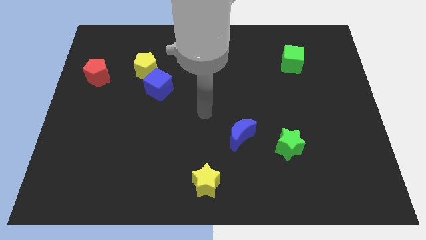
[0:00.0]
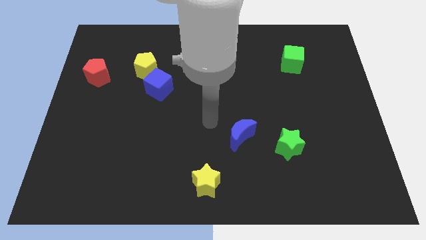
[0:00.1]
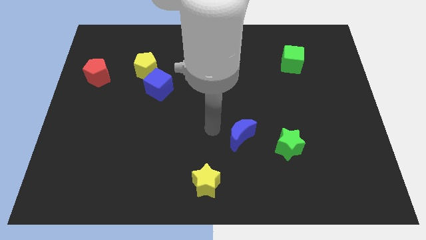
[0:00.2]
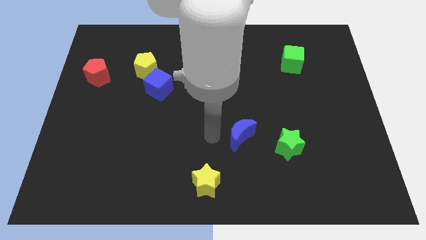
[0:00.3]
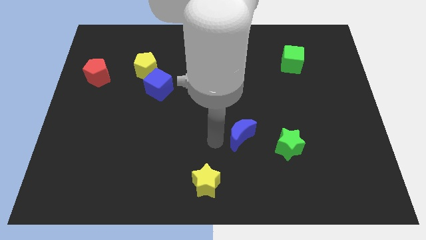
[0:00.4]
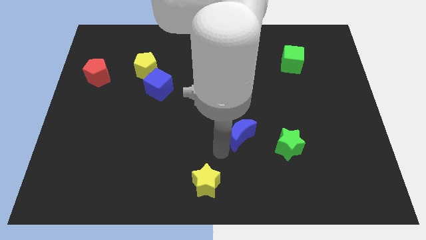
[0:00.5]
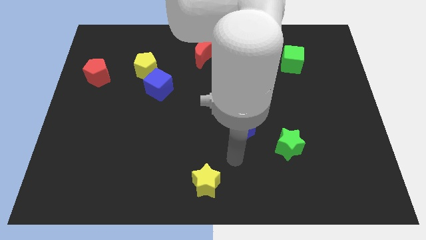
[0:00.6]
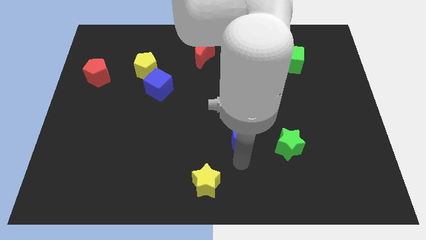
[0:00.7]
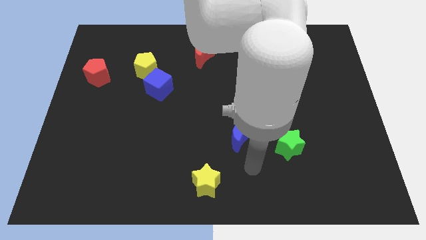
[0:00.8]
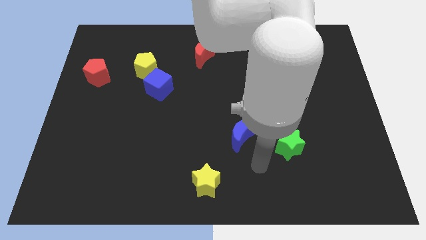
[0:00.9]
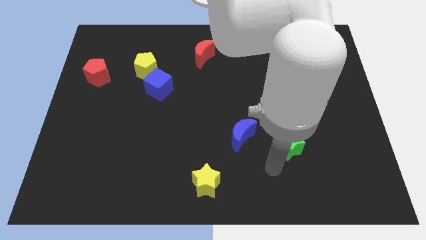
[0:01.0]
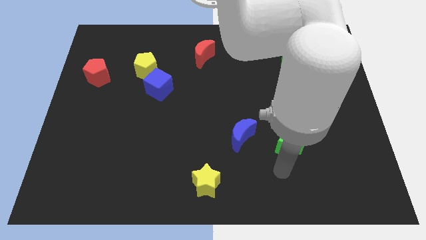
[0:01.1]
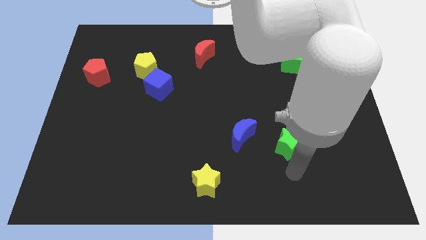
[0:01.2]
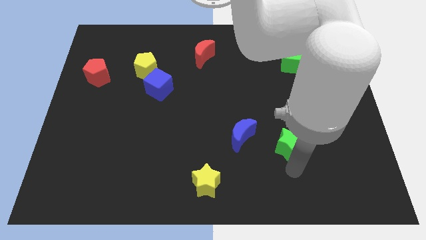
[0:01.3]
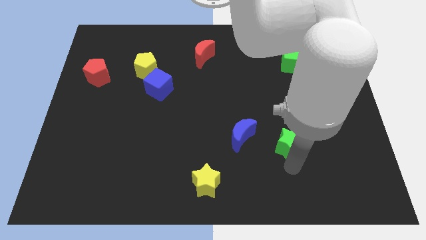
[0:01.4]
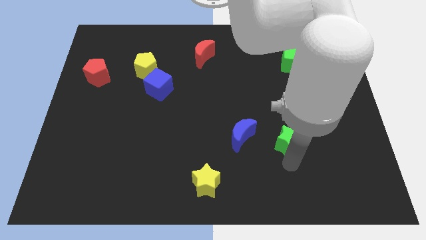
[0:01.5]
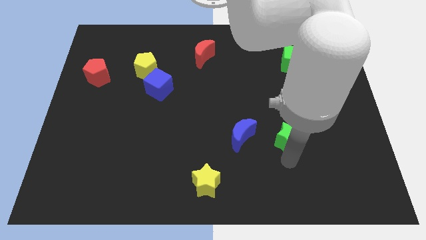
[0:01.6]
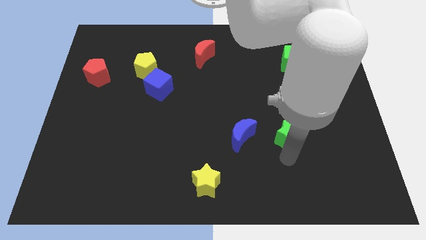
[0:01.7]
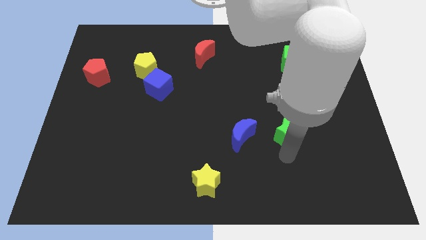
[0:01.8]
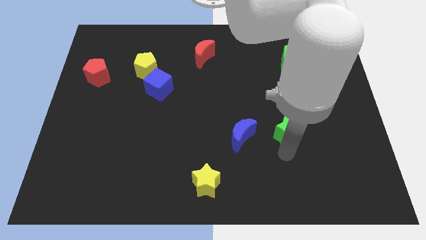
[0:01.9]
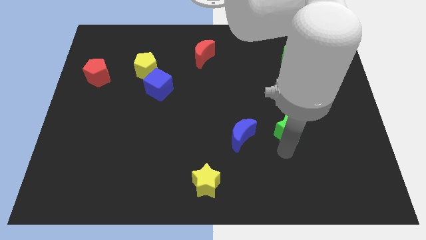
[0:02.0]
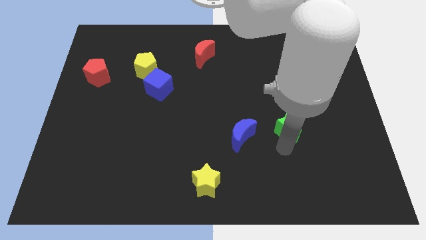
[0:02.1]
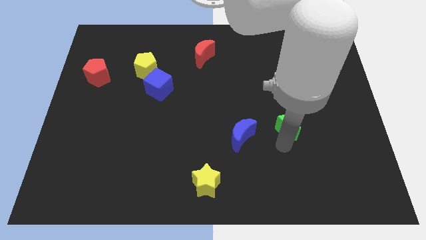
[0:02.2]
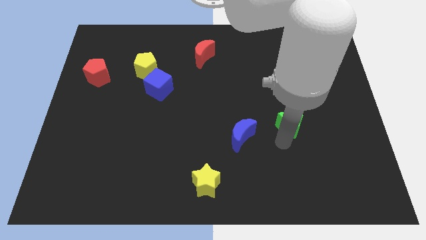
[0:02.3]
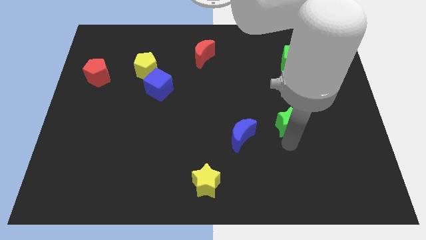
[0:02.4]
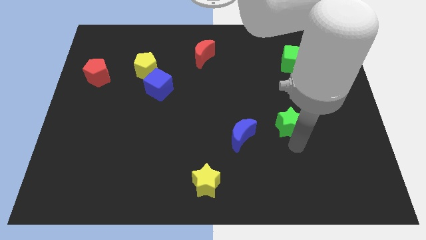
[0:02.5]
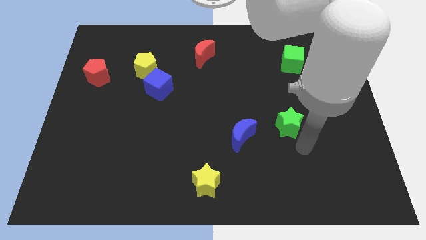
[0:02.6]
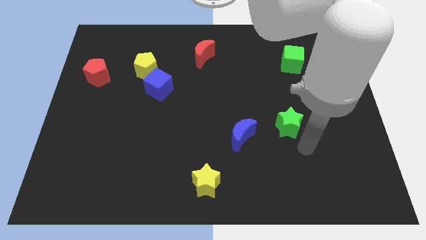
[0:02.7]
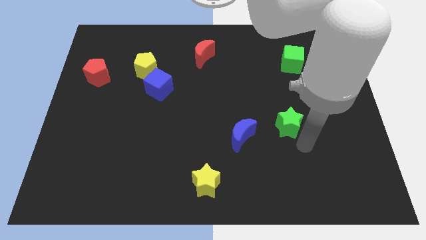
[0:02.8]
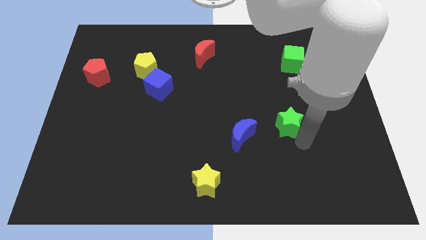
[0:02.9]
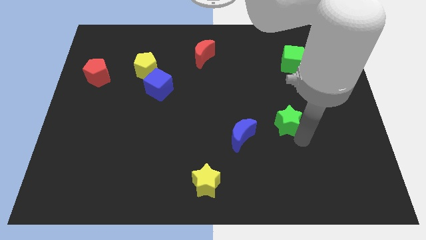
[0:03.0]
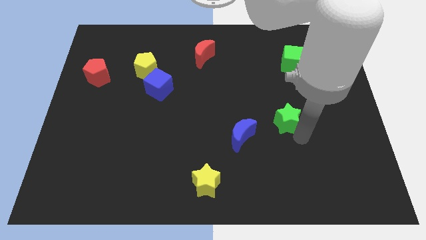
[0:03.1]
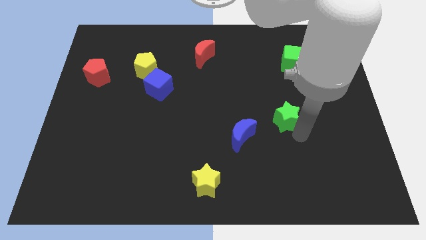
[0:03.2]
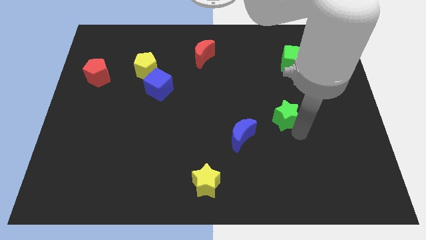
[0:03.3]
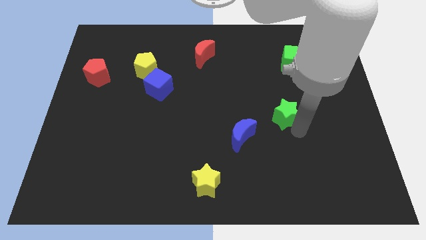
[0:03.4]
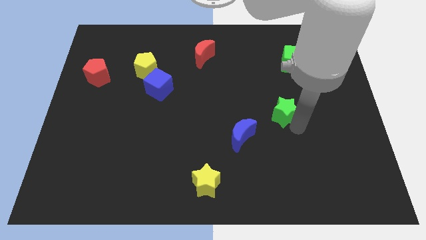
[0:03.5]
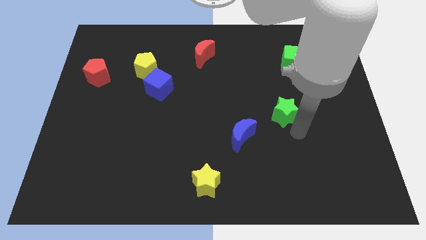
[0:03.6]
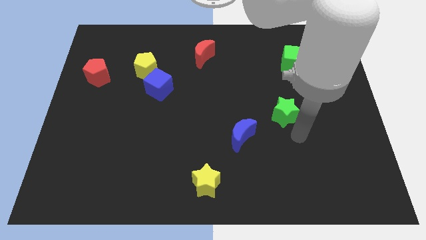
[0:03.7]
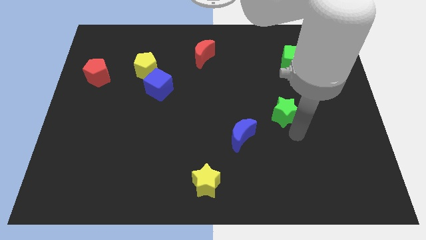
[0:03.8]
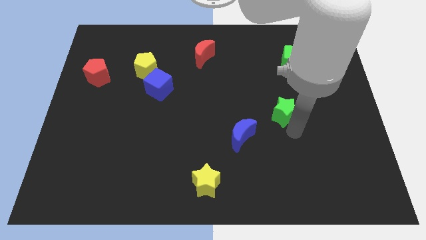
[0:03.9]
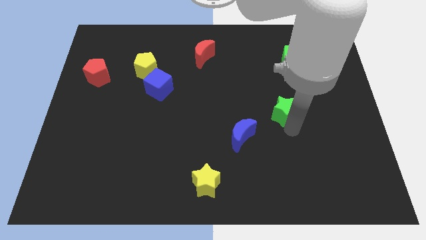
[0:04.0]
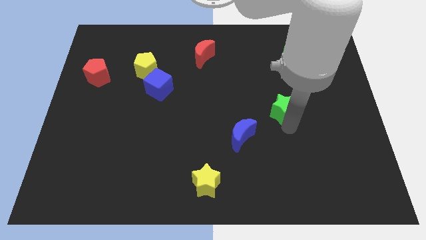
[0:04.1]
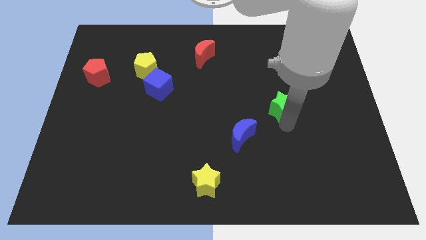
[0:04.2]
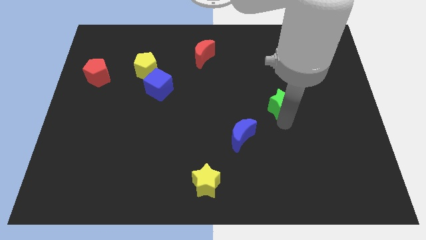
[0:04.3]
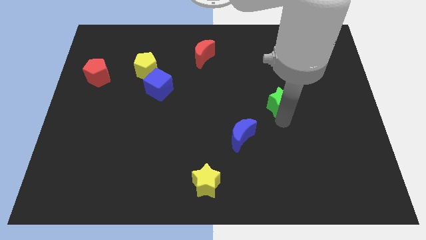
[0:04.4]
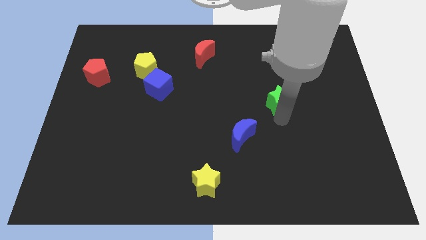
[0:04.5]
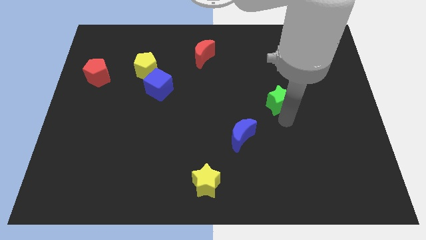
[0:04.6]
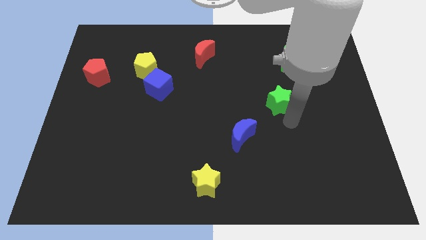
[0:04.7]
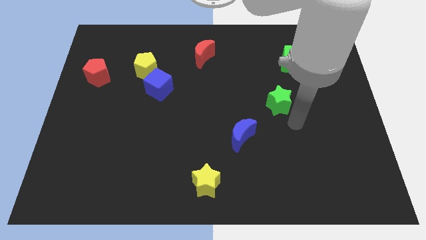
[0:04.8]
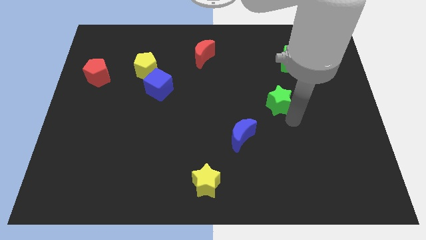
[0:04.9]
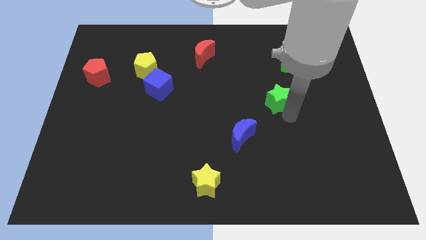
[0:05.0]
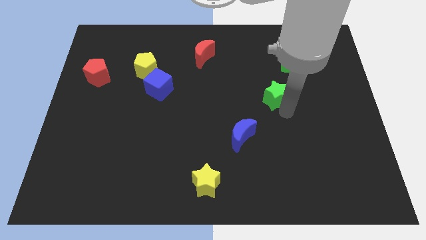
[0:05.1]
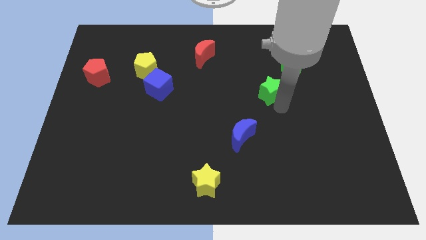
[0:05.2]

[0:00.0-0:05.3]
push the green star to the bottom left of the green cube

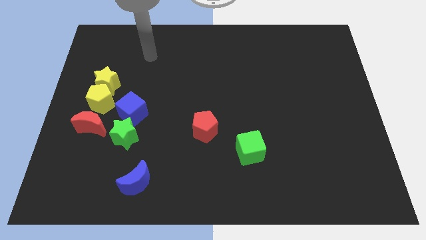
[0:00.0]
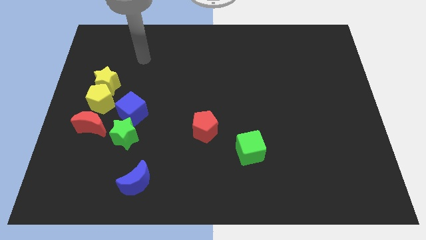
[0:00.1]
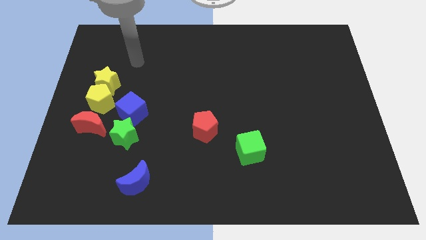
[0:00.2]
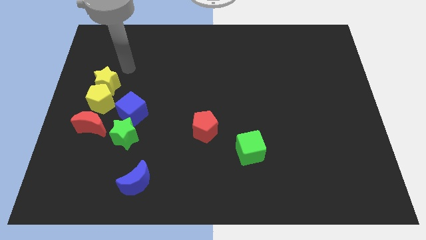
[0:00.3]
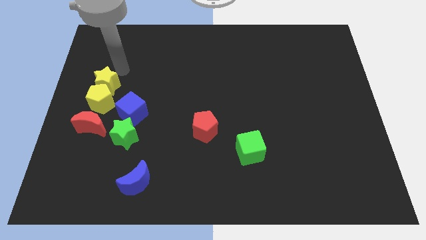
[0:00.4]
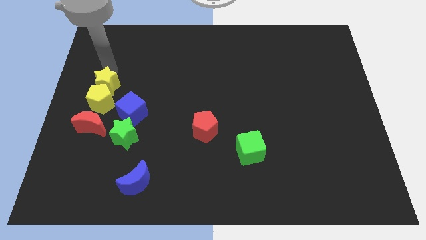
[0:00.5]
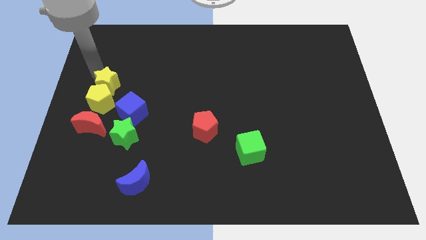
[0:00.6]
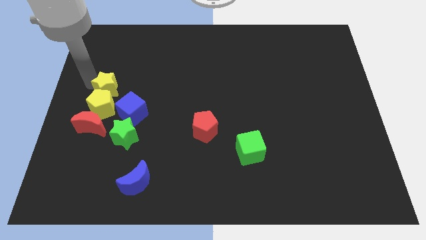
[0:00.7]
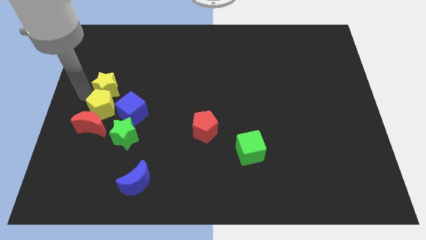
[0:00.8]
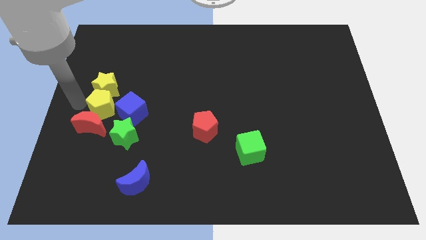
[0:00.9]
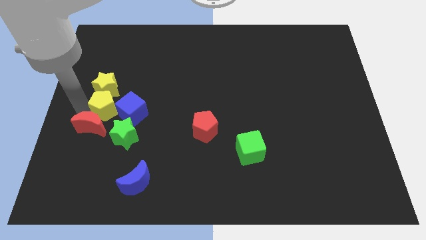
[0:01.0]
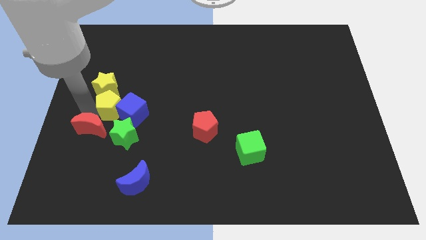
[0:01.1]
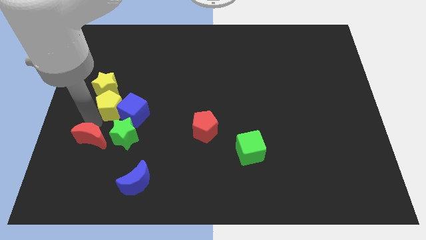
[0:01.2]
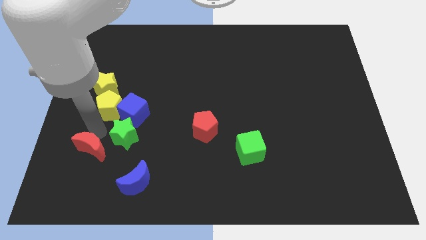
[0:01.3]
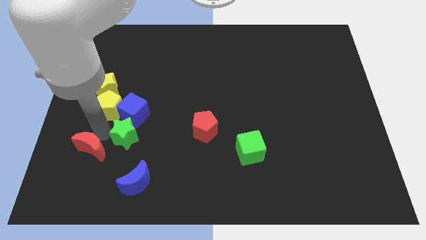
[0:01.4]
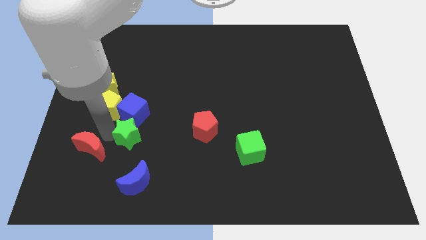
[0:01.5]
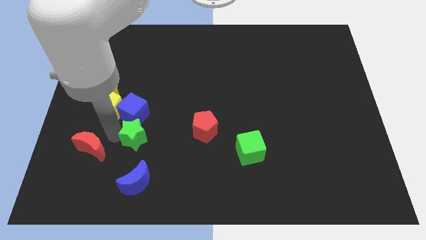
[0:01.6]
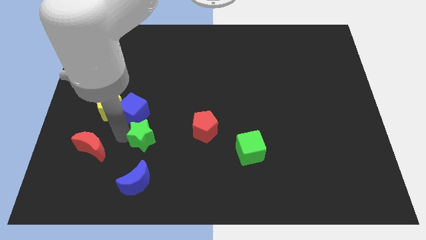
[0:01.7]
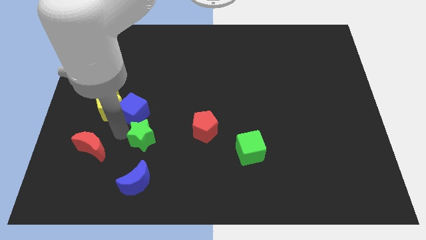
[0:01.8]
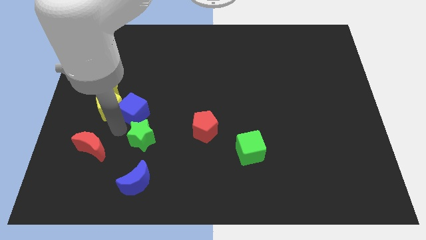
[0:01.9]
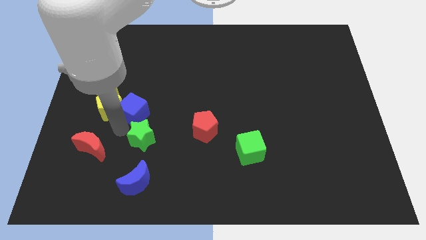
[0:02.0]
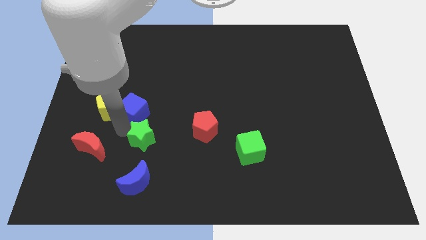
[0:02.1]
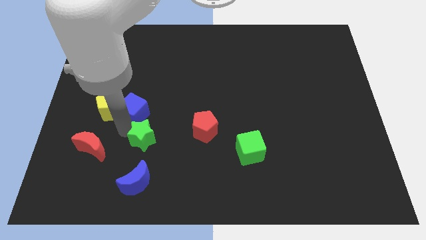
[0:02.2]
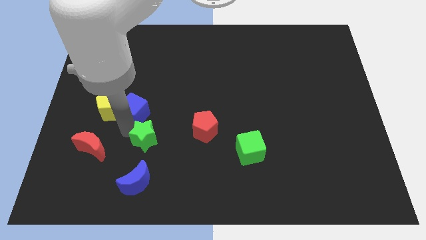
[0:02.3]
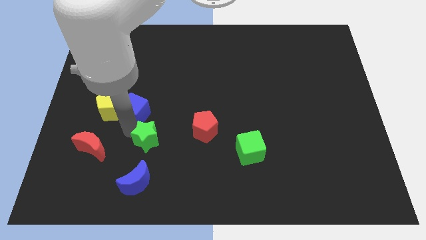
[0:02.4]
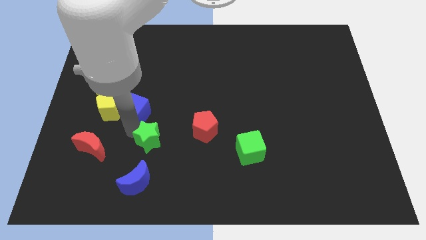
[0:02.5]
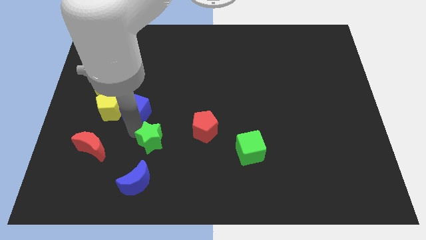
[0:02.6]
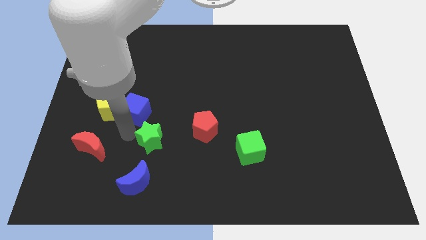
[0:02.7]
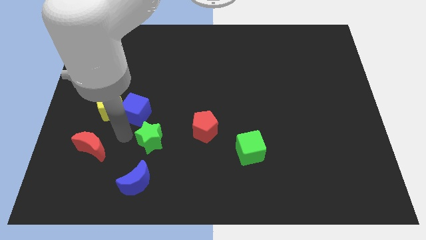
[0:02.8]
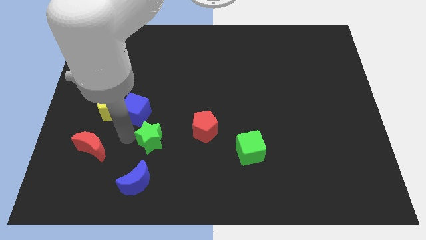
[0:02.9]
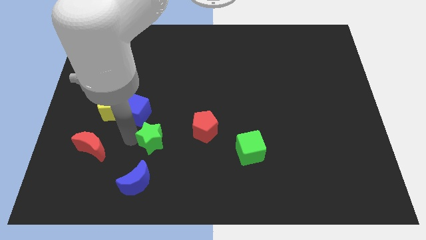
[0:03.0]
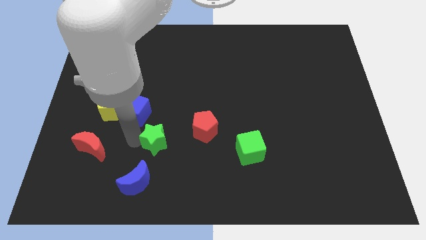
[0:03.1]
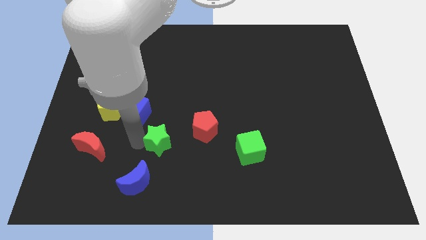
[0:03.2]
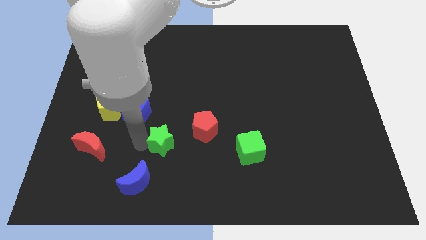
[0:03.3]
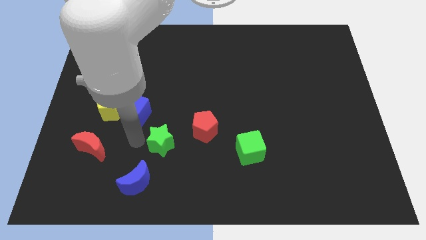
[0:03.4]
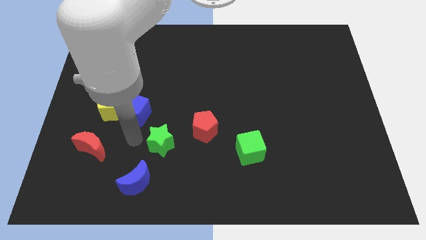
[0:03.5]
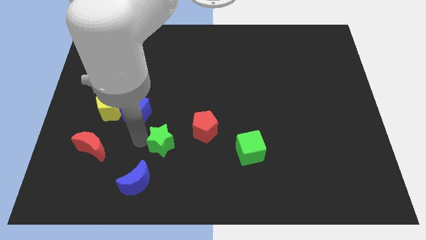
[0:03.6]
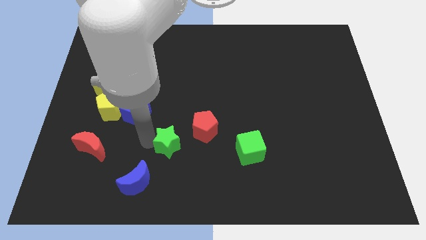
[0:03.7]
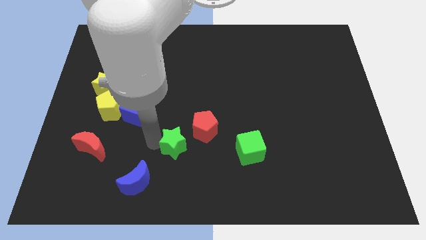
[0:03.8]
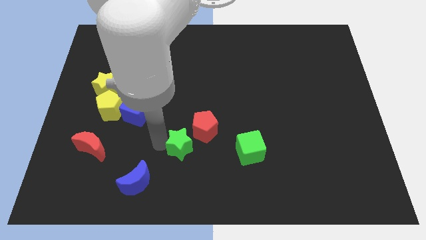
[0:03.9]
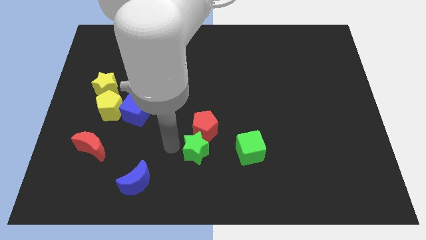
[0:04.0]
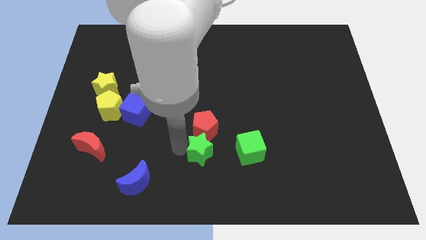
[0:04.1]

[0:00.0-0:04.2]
slide the green star diagonally down and to the right of the red pentagon
